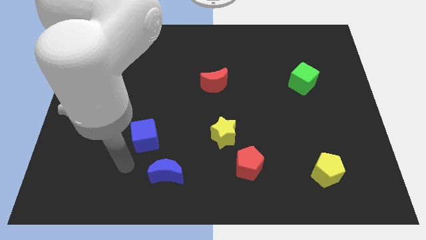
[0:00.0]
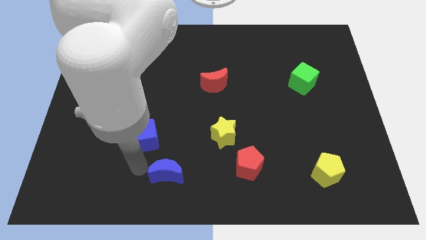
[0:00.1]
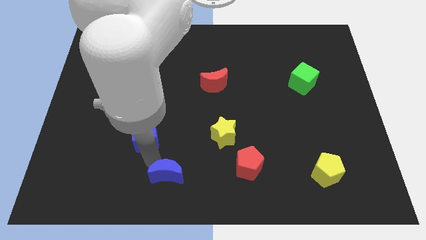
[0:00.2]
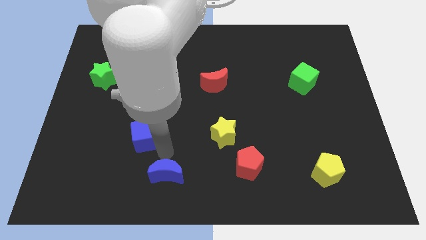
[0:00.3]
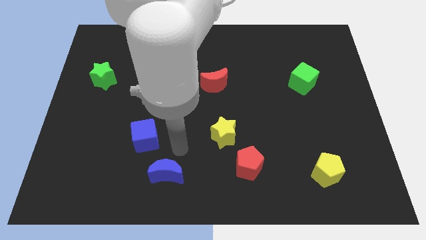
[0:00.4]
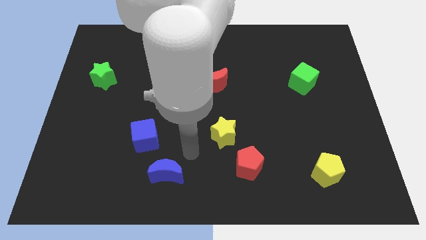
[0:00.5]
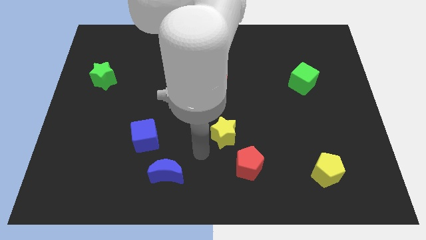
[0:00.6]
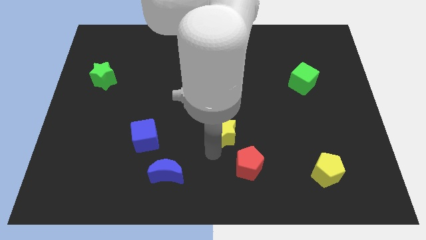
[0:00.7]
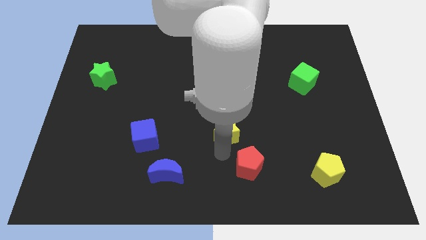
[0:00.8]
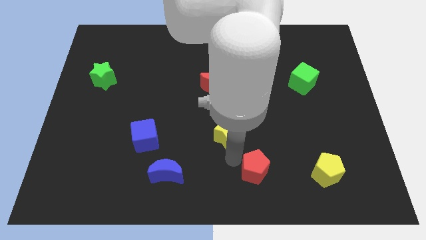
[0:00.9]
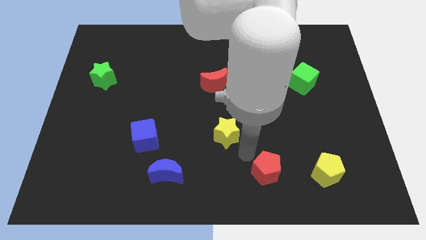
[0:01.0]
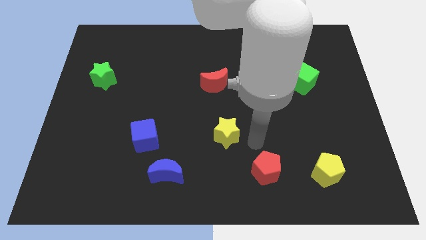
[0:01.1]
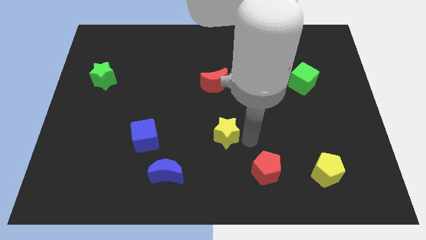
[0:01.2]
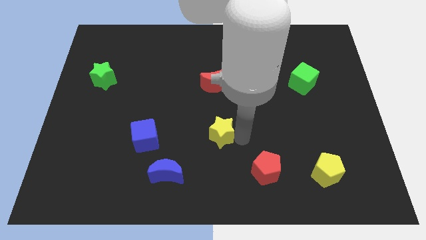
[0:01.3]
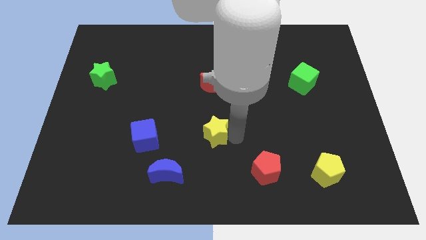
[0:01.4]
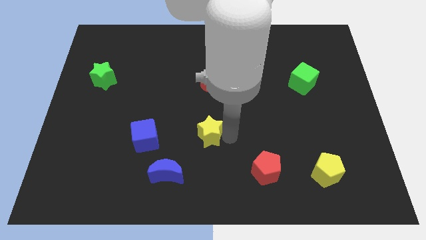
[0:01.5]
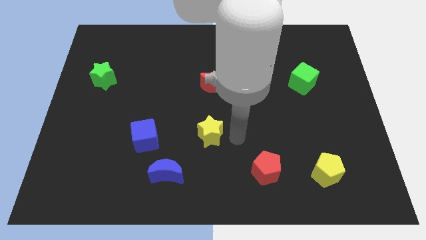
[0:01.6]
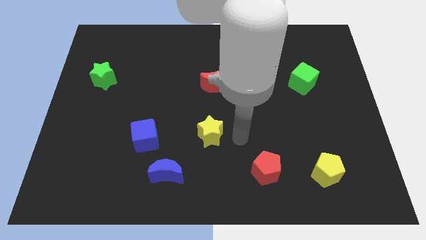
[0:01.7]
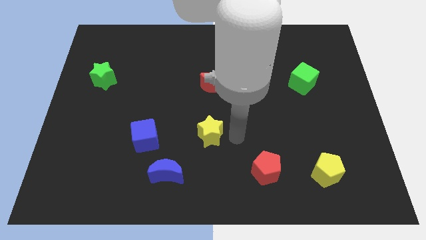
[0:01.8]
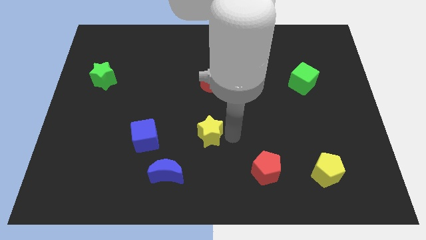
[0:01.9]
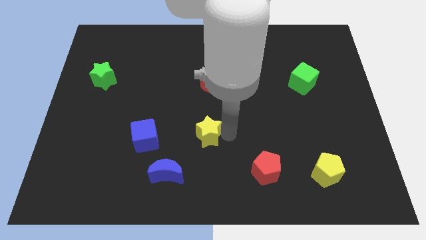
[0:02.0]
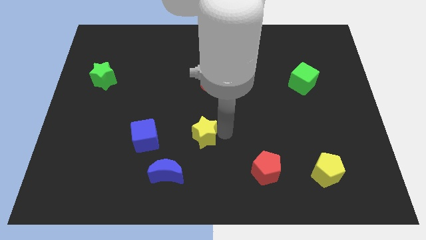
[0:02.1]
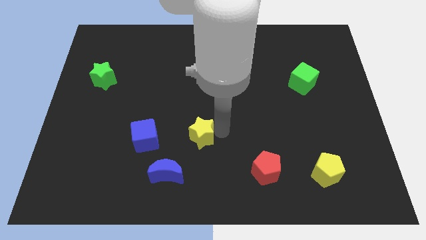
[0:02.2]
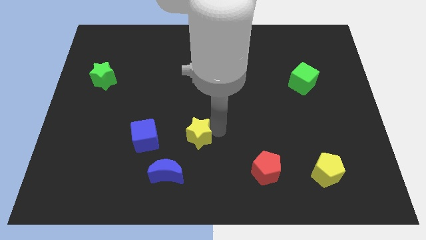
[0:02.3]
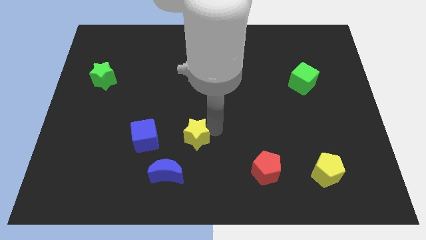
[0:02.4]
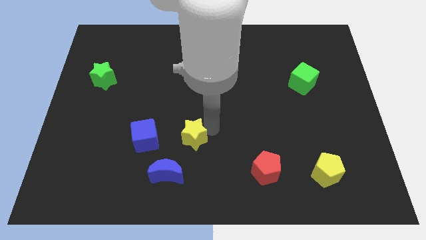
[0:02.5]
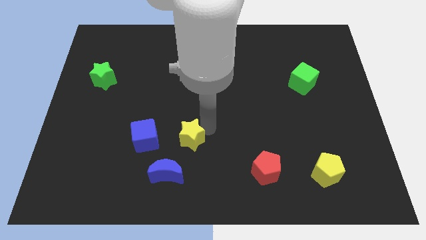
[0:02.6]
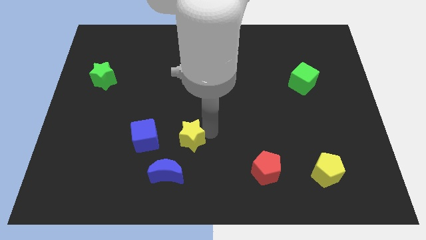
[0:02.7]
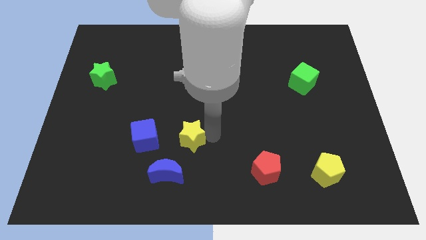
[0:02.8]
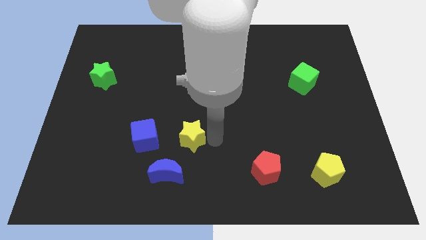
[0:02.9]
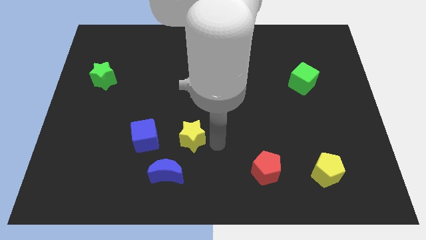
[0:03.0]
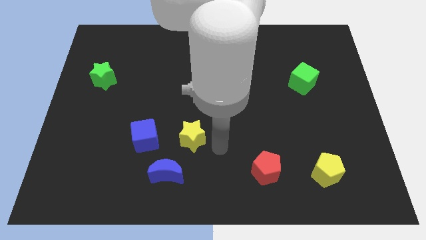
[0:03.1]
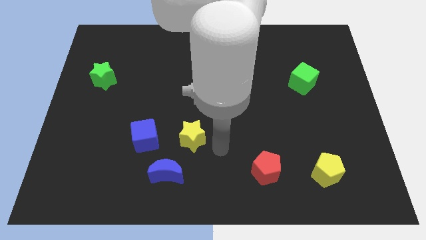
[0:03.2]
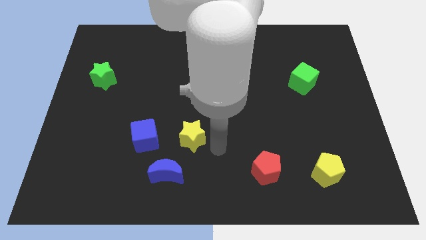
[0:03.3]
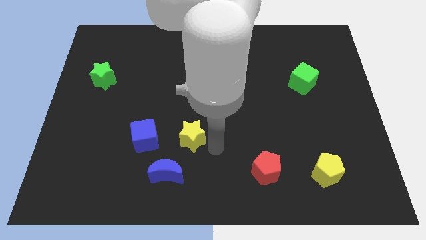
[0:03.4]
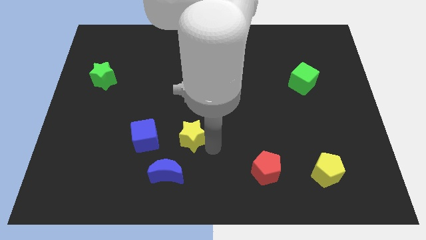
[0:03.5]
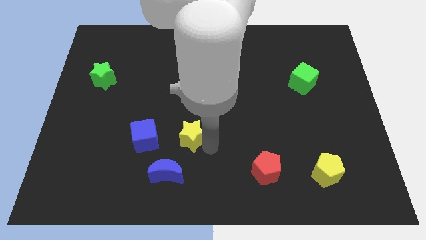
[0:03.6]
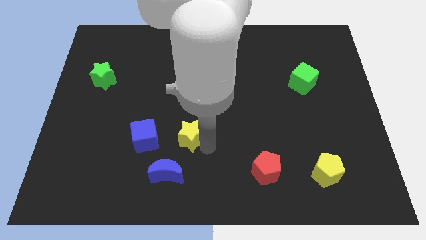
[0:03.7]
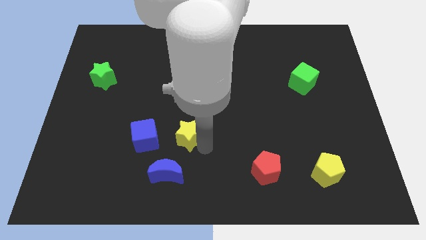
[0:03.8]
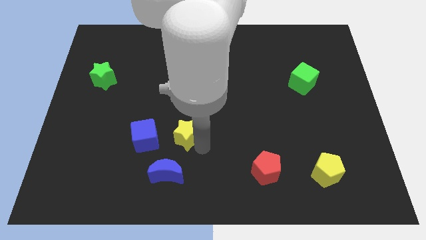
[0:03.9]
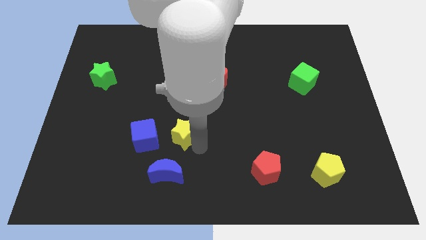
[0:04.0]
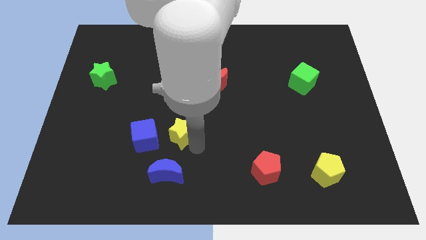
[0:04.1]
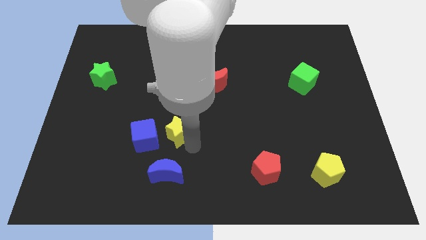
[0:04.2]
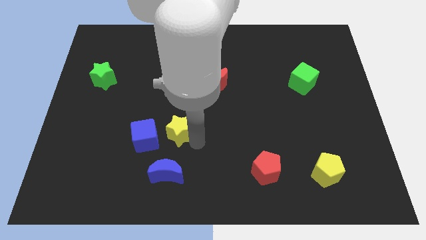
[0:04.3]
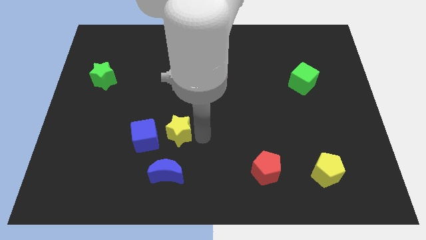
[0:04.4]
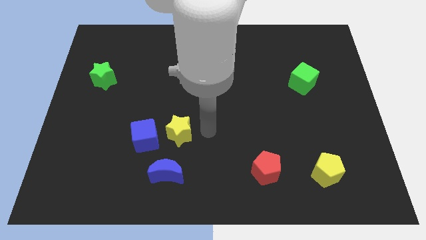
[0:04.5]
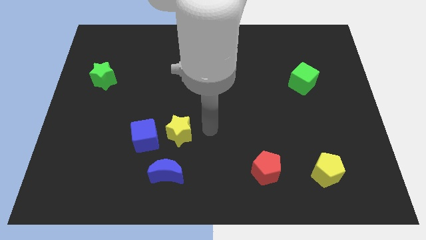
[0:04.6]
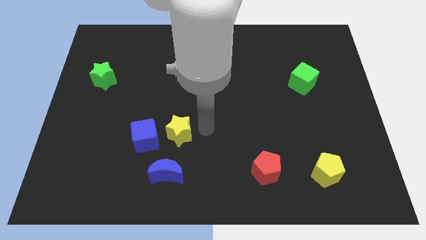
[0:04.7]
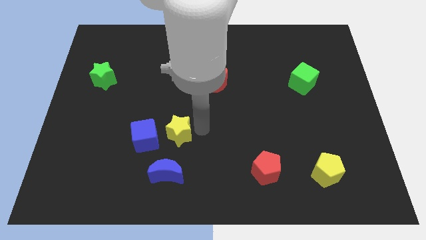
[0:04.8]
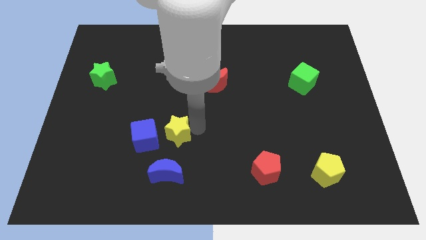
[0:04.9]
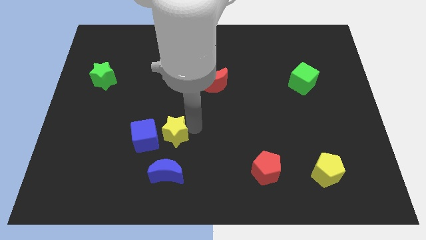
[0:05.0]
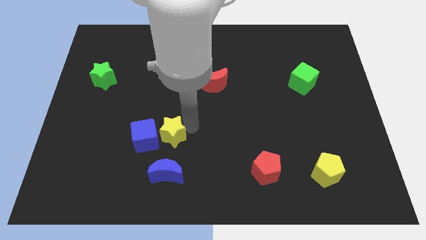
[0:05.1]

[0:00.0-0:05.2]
move the yellow star close to the blue cube

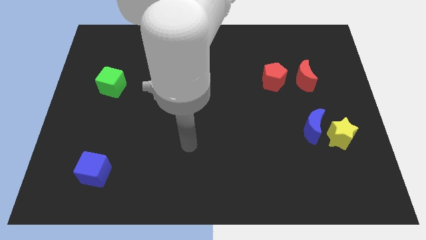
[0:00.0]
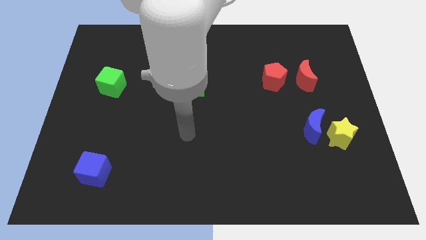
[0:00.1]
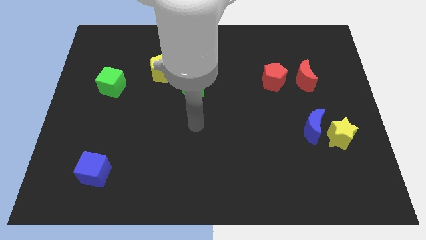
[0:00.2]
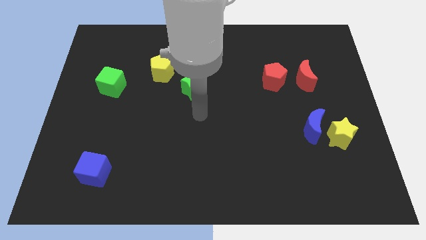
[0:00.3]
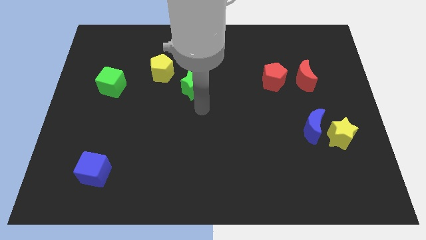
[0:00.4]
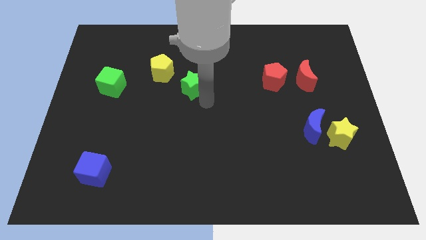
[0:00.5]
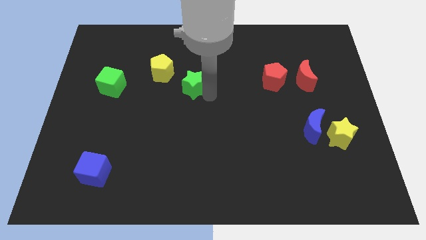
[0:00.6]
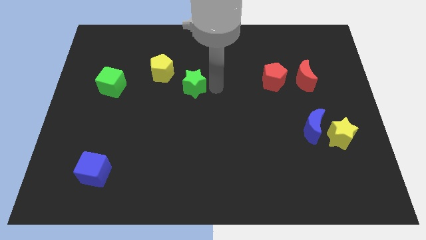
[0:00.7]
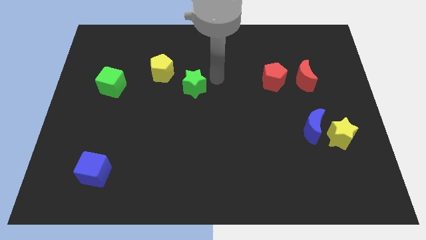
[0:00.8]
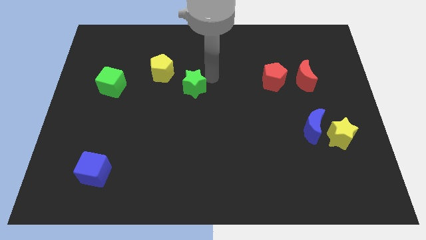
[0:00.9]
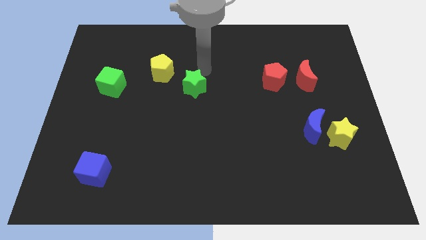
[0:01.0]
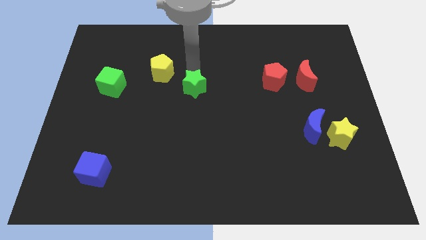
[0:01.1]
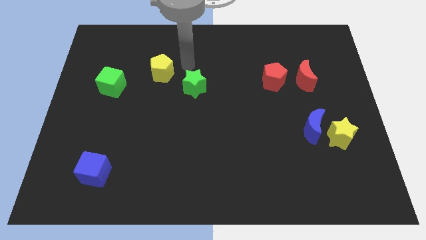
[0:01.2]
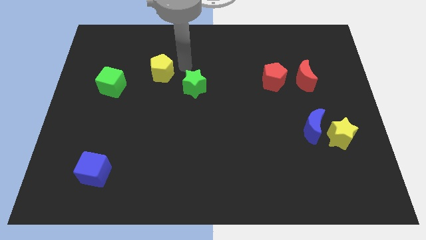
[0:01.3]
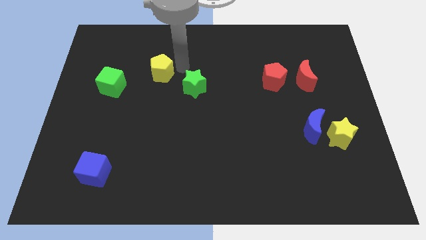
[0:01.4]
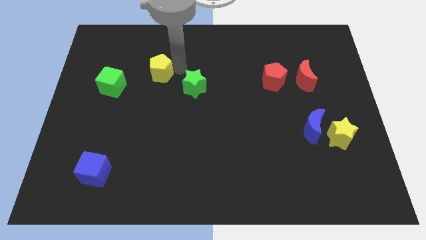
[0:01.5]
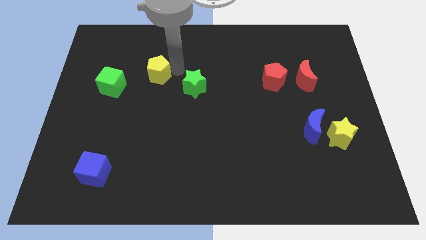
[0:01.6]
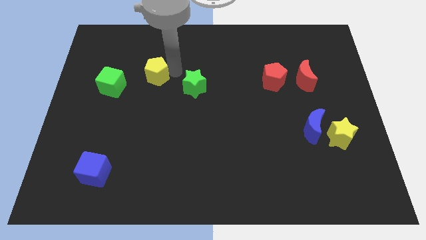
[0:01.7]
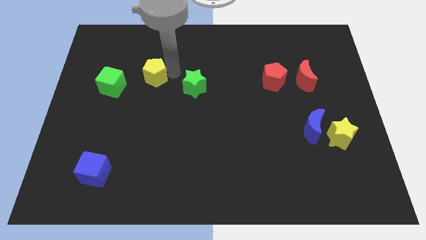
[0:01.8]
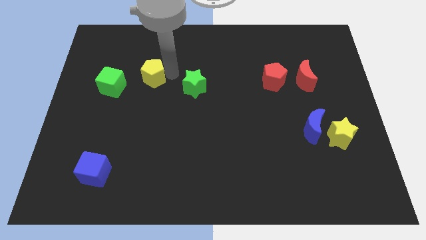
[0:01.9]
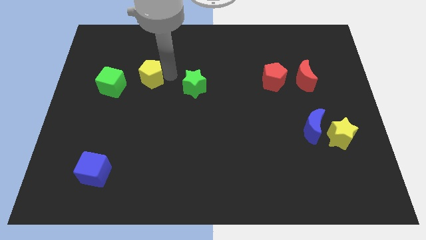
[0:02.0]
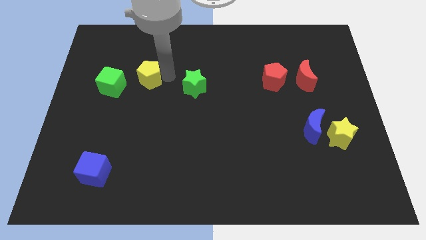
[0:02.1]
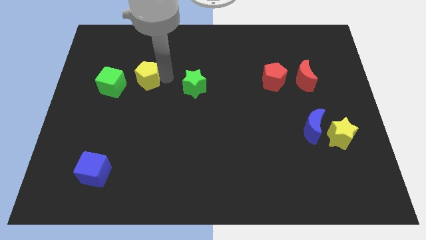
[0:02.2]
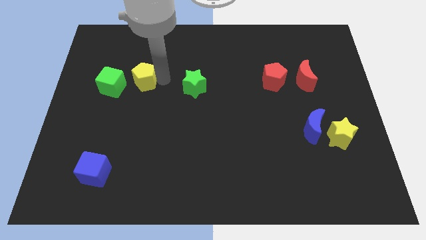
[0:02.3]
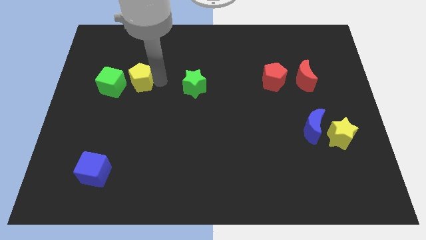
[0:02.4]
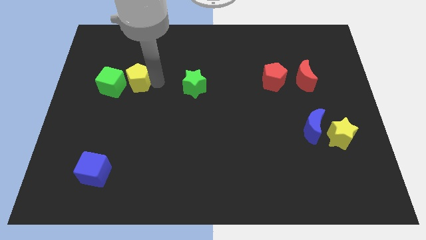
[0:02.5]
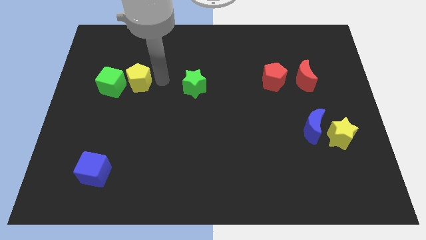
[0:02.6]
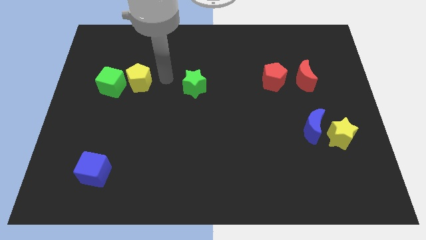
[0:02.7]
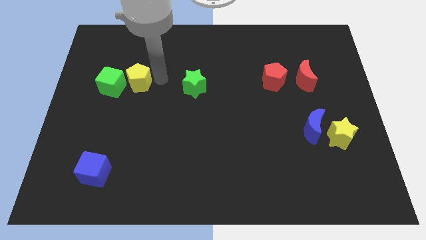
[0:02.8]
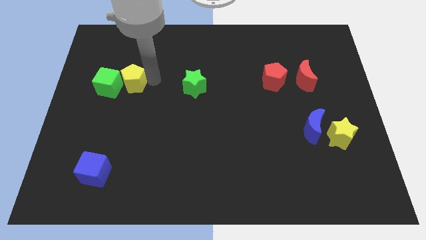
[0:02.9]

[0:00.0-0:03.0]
put the yellow pentagon close to the green cube
